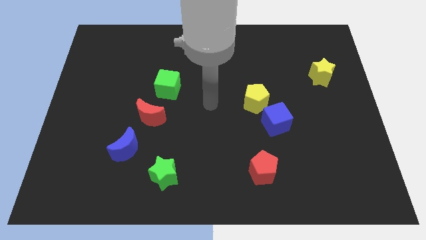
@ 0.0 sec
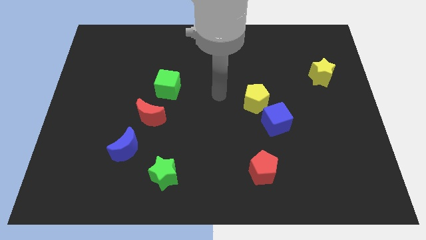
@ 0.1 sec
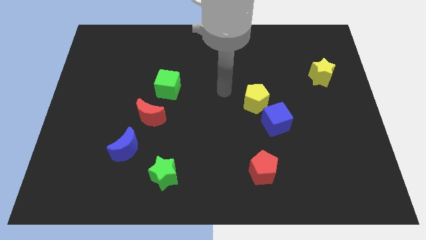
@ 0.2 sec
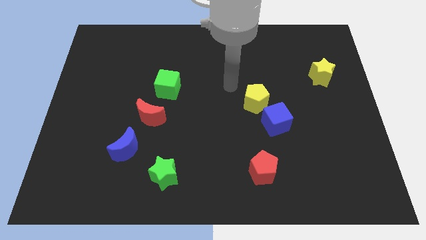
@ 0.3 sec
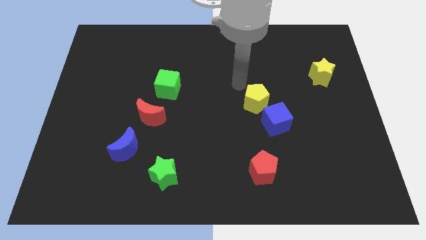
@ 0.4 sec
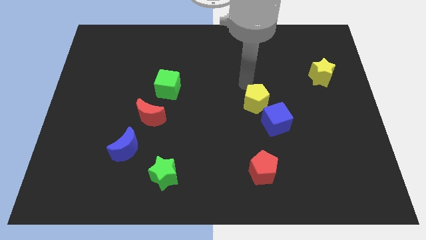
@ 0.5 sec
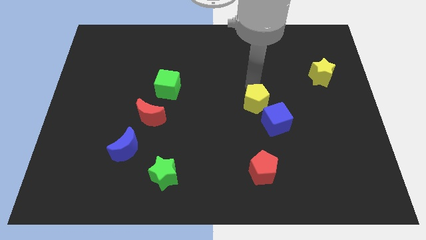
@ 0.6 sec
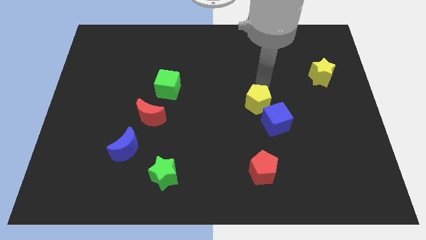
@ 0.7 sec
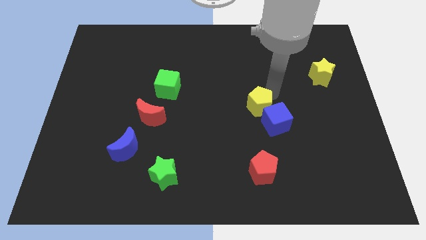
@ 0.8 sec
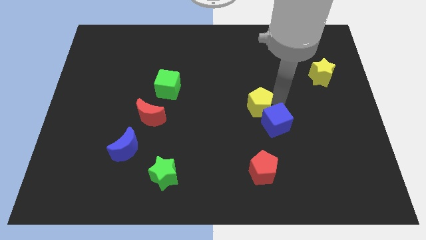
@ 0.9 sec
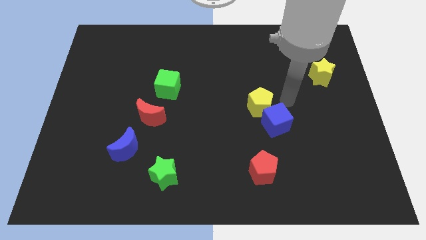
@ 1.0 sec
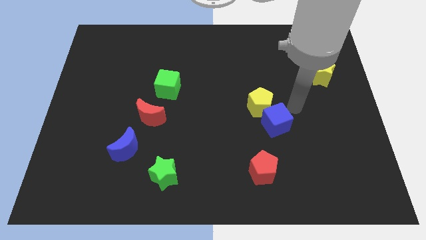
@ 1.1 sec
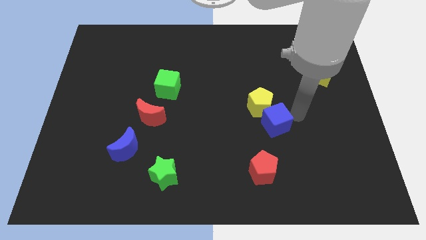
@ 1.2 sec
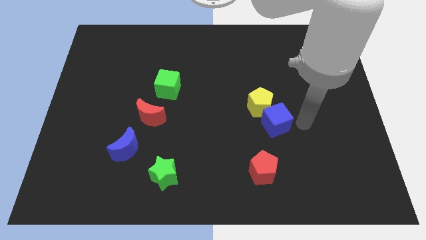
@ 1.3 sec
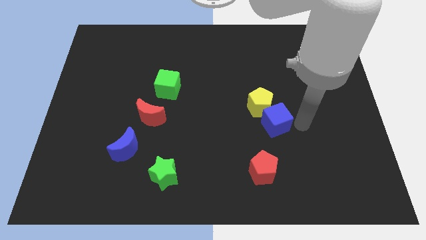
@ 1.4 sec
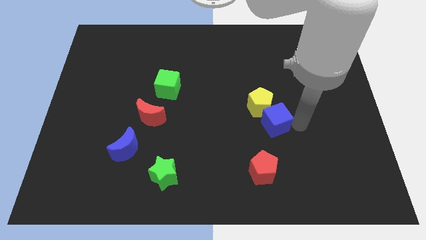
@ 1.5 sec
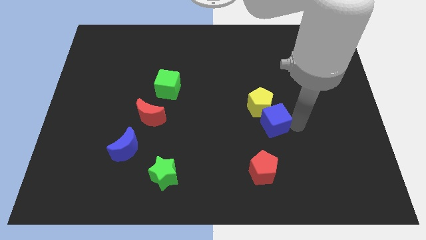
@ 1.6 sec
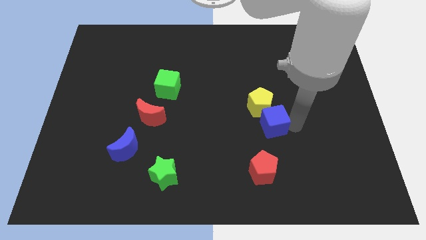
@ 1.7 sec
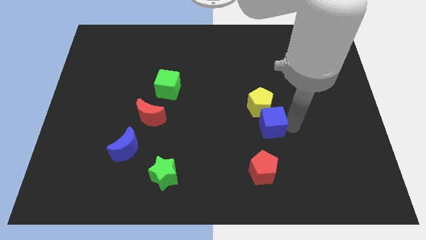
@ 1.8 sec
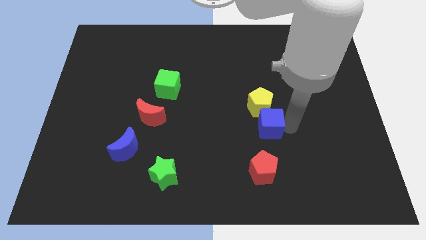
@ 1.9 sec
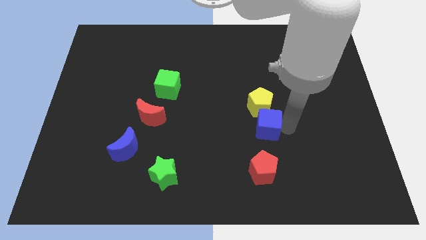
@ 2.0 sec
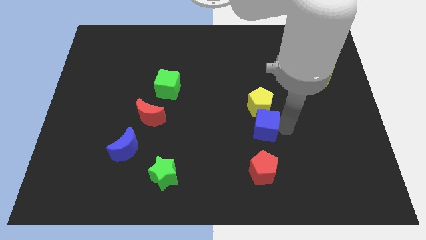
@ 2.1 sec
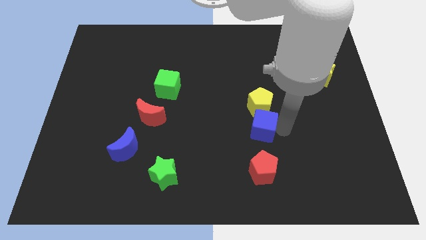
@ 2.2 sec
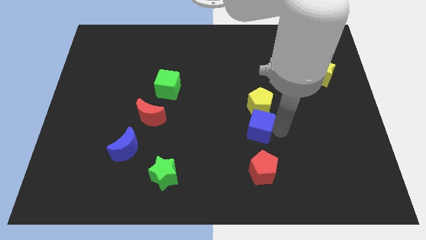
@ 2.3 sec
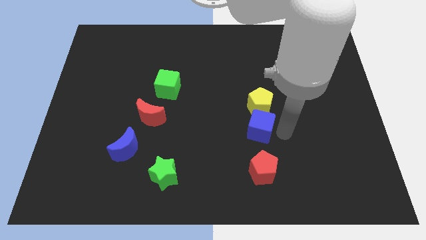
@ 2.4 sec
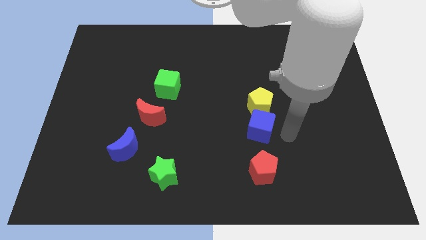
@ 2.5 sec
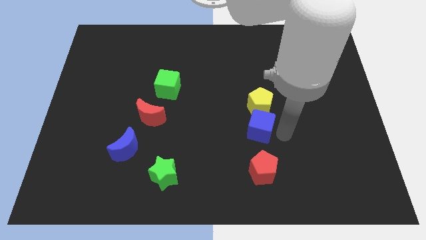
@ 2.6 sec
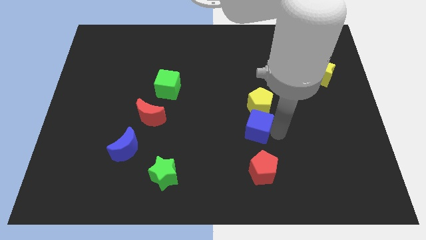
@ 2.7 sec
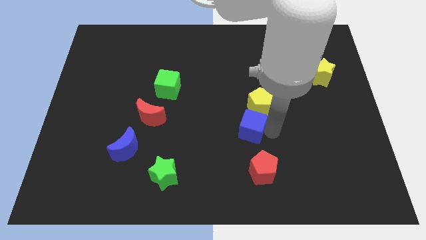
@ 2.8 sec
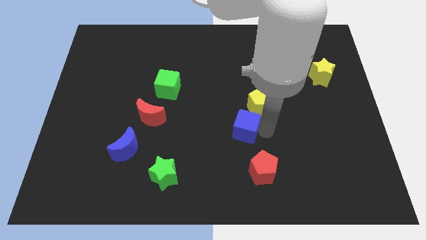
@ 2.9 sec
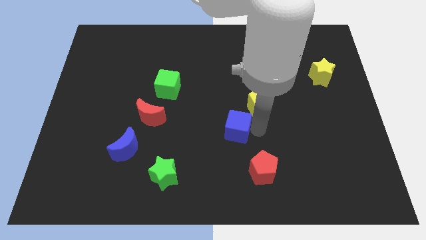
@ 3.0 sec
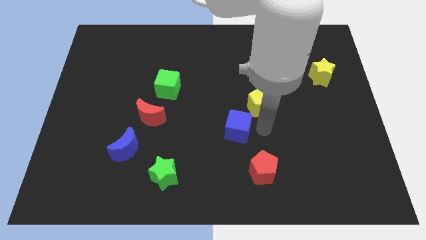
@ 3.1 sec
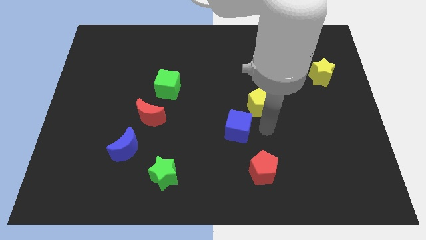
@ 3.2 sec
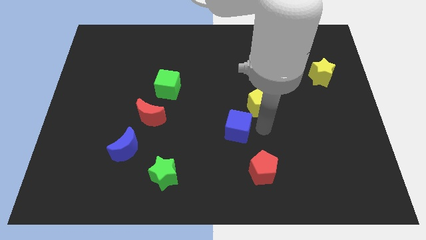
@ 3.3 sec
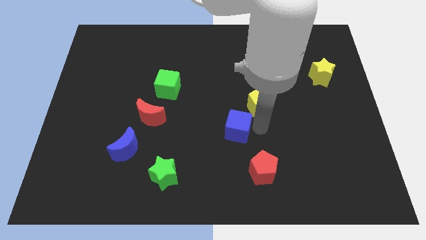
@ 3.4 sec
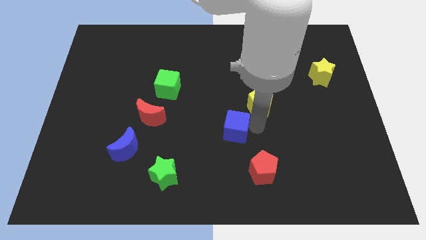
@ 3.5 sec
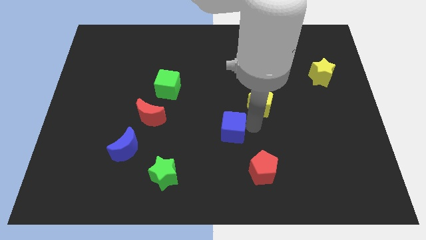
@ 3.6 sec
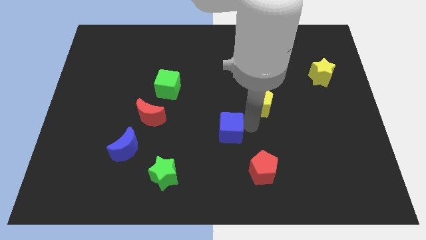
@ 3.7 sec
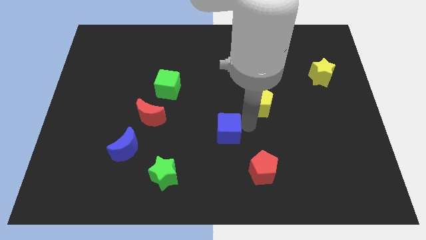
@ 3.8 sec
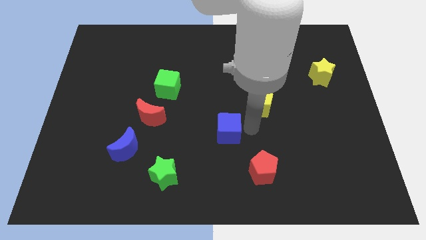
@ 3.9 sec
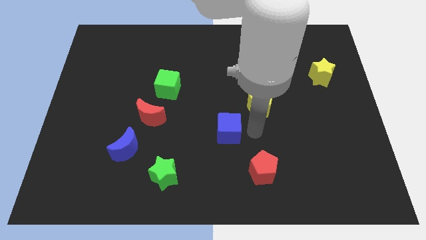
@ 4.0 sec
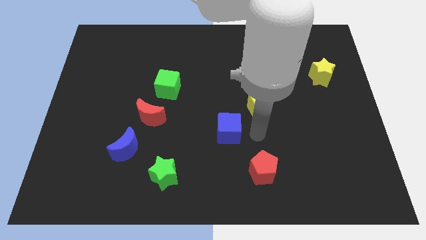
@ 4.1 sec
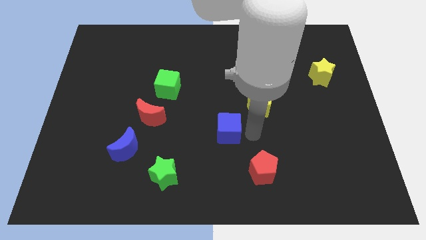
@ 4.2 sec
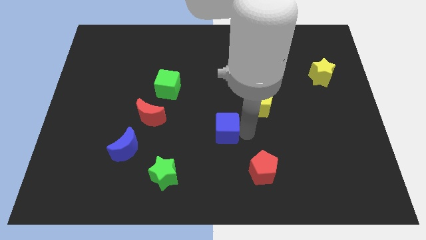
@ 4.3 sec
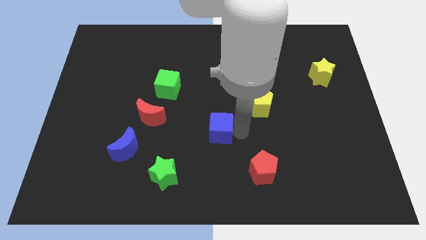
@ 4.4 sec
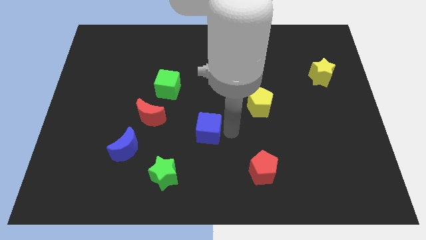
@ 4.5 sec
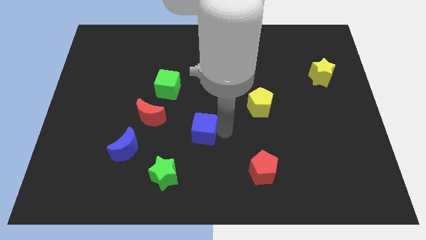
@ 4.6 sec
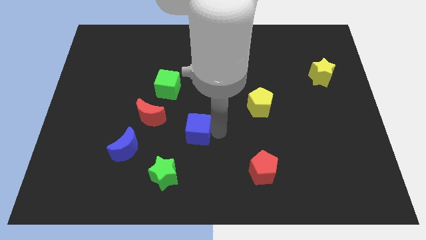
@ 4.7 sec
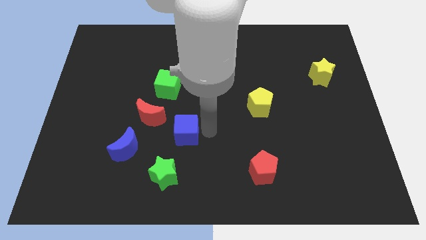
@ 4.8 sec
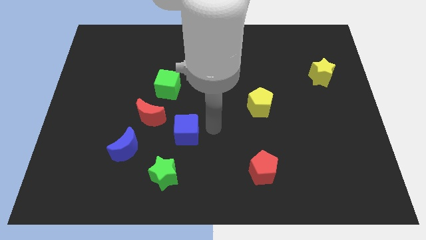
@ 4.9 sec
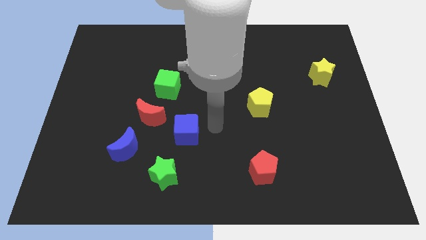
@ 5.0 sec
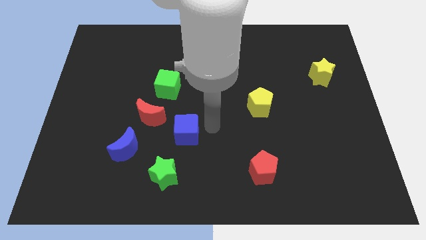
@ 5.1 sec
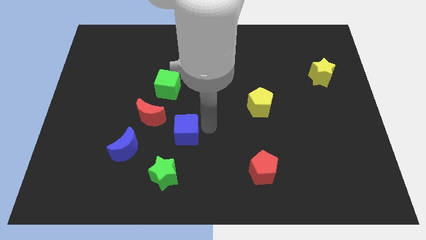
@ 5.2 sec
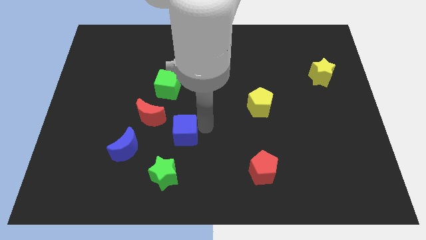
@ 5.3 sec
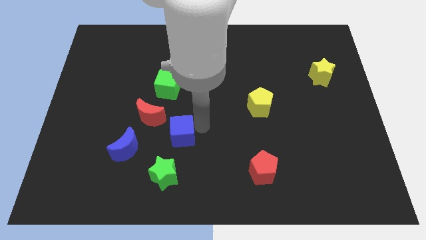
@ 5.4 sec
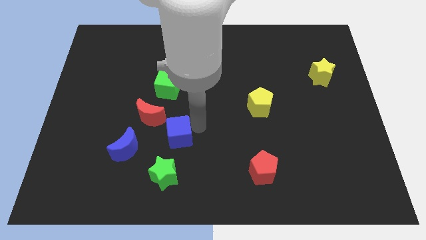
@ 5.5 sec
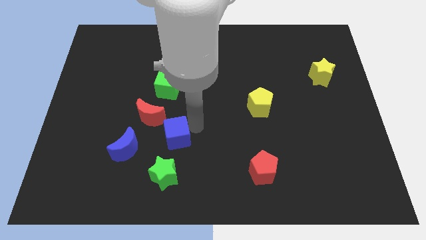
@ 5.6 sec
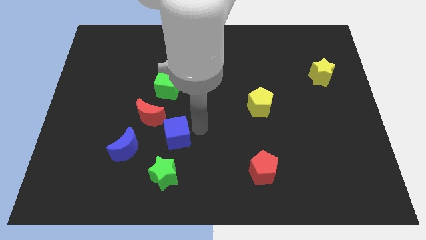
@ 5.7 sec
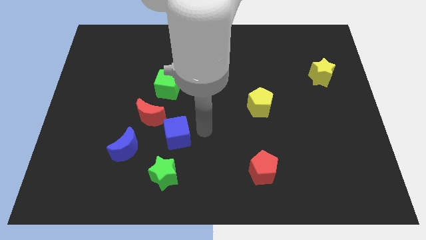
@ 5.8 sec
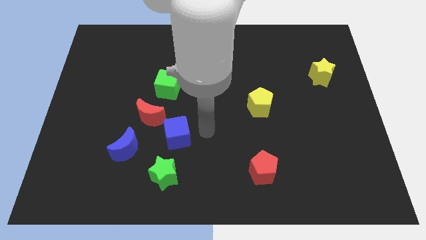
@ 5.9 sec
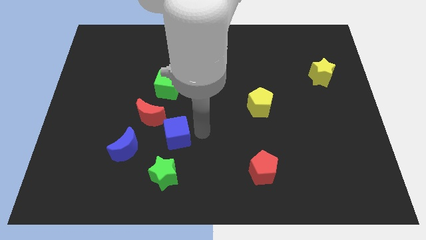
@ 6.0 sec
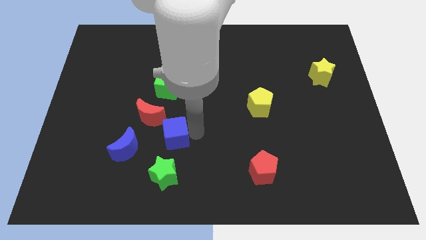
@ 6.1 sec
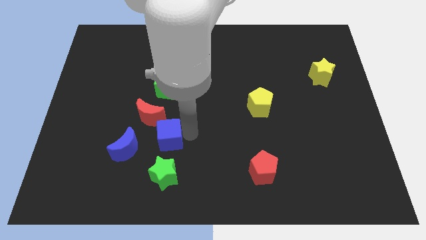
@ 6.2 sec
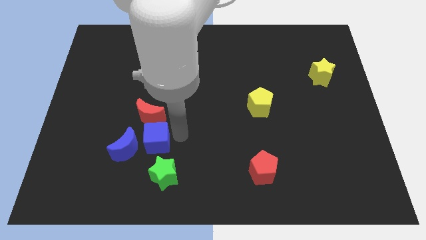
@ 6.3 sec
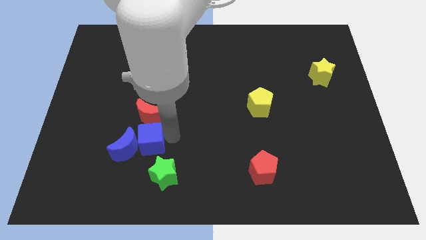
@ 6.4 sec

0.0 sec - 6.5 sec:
slide the blue cube next to the blue moon
